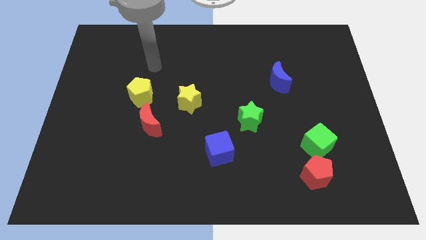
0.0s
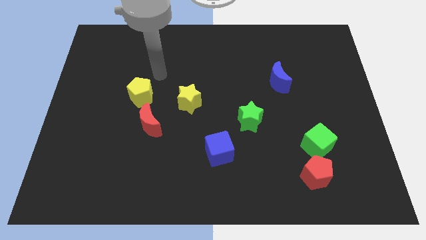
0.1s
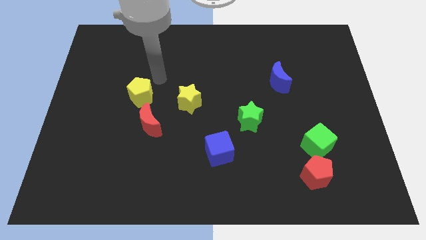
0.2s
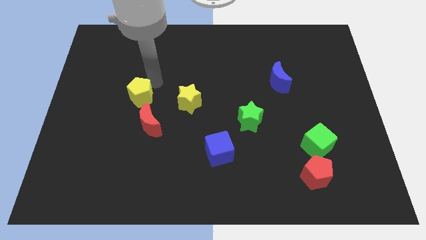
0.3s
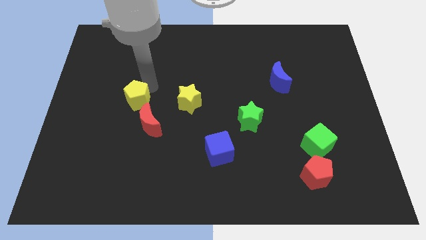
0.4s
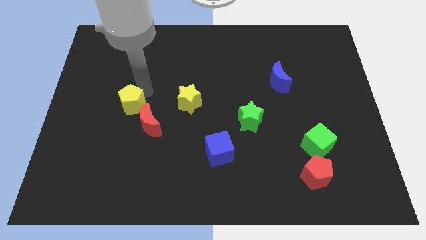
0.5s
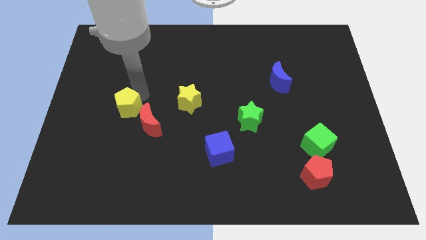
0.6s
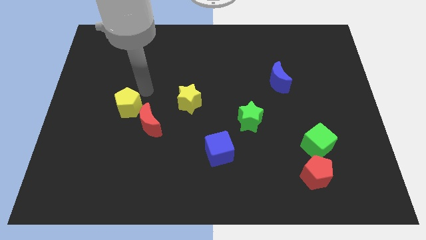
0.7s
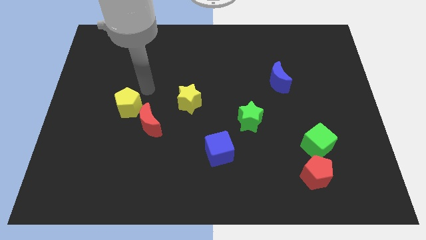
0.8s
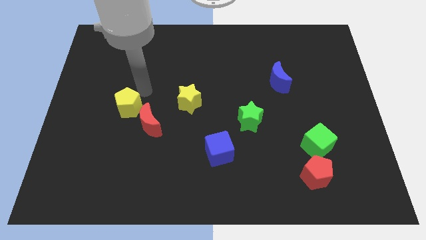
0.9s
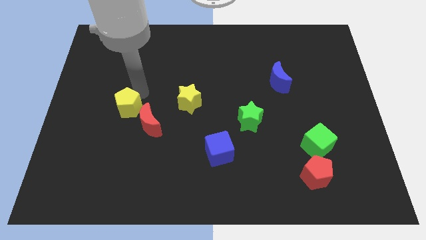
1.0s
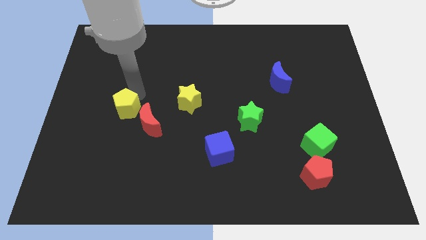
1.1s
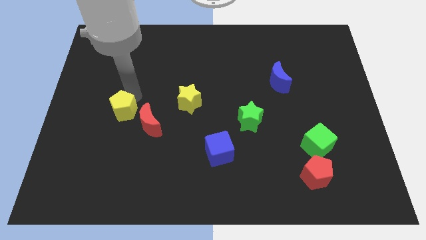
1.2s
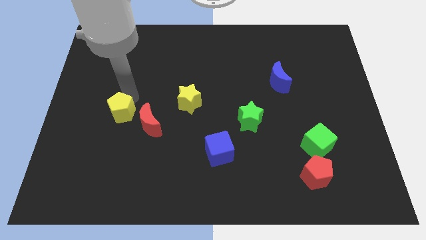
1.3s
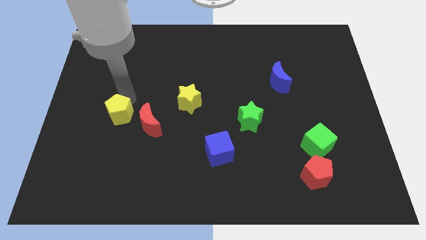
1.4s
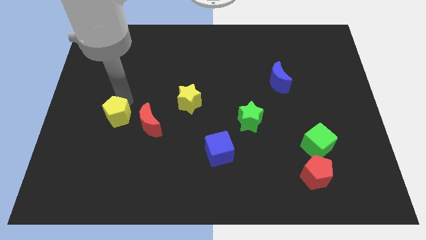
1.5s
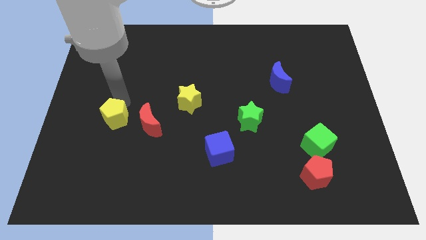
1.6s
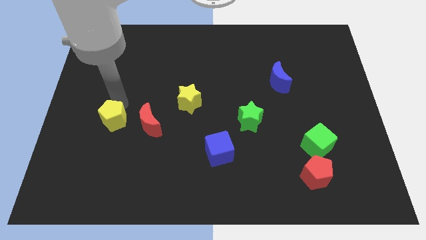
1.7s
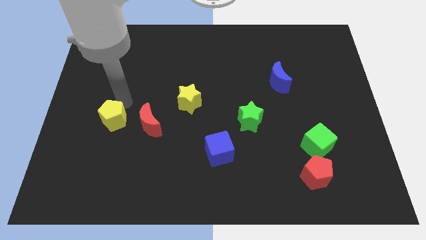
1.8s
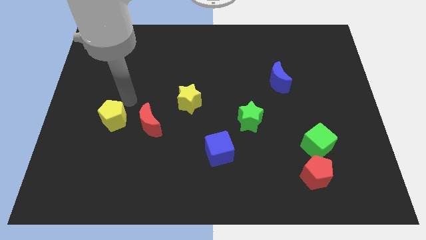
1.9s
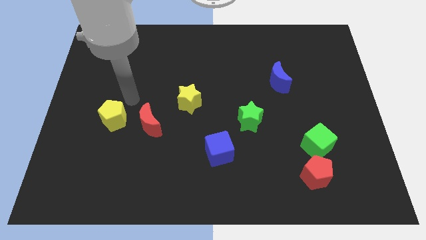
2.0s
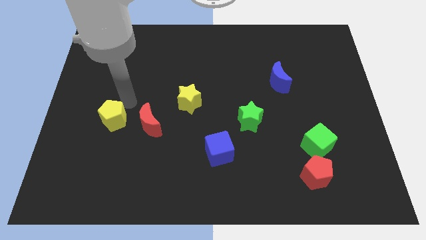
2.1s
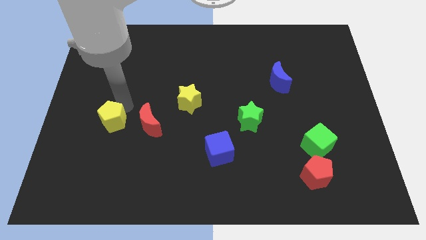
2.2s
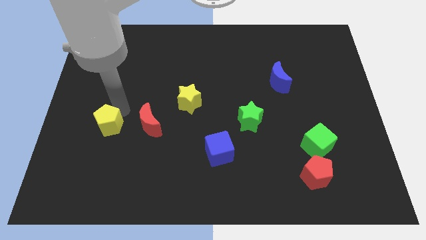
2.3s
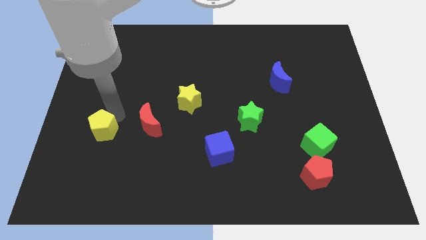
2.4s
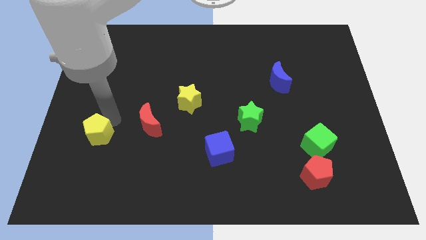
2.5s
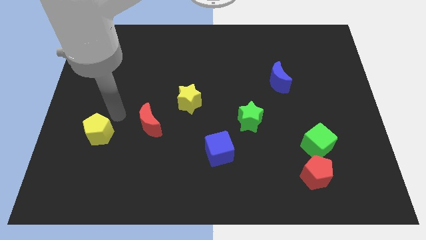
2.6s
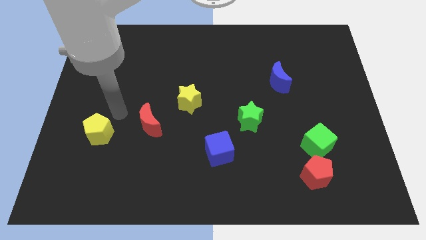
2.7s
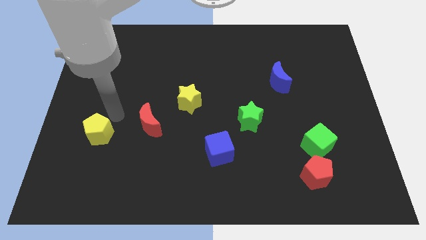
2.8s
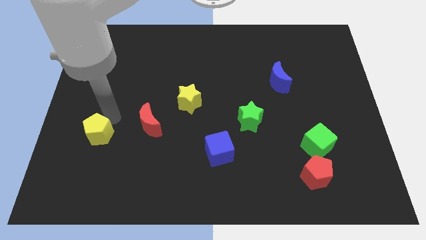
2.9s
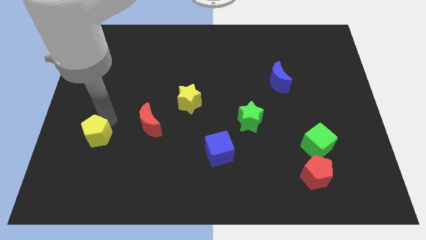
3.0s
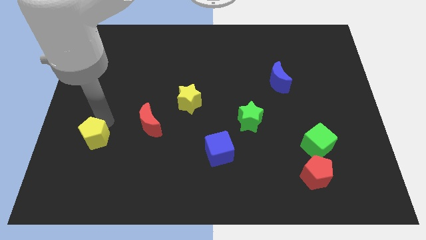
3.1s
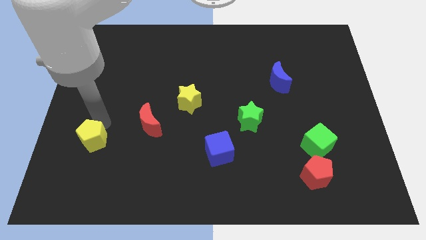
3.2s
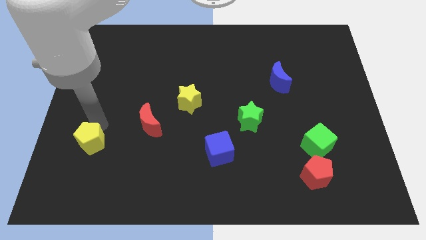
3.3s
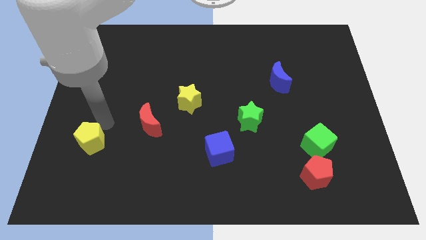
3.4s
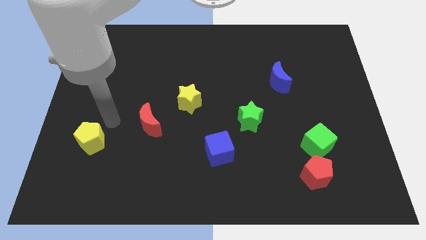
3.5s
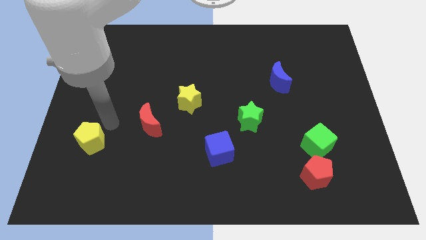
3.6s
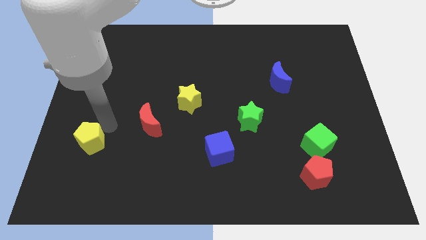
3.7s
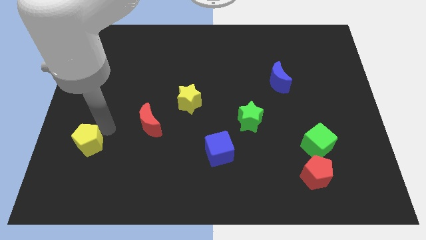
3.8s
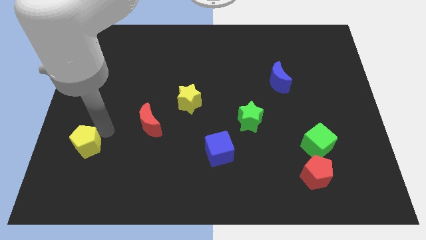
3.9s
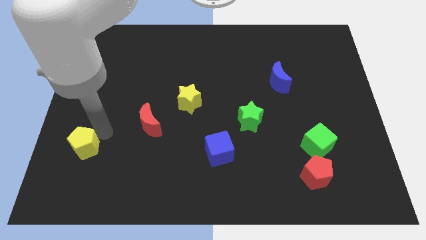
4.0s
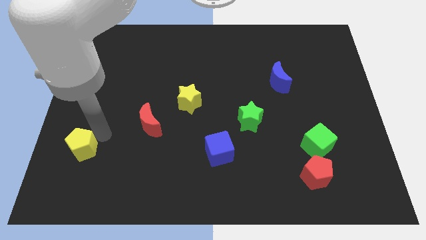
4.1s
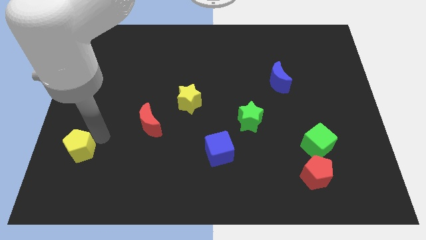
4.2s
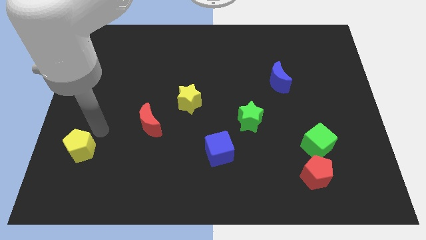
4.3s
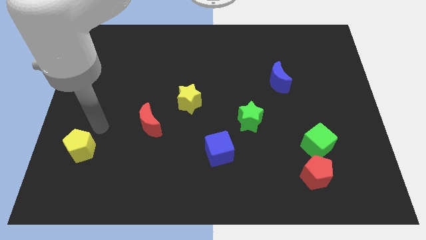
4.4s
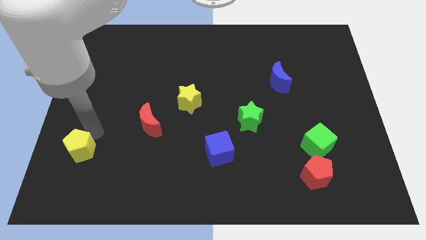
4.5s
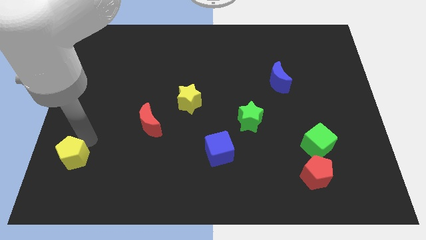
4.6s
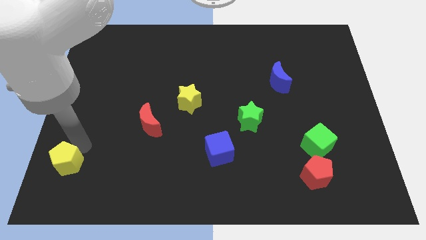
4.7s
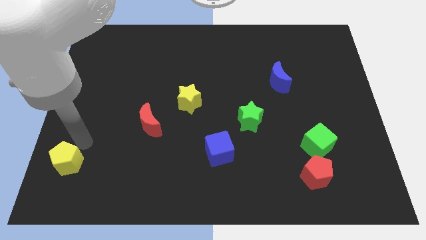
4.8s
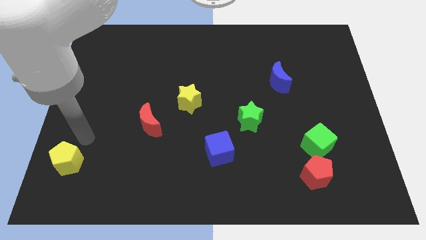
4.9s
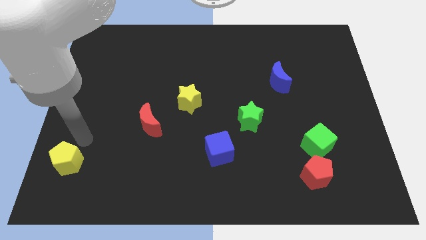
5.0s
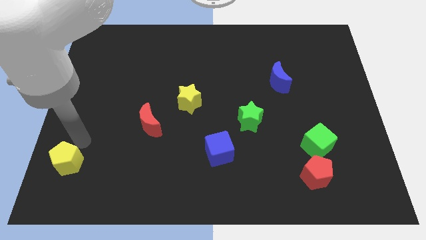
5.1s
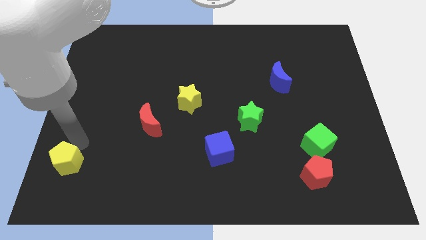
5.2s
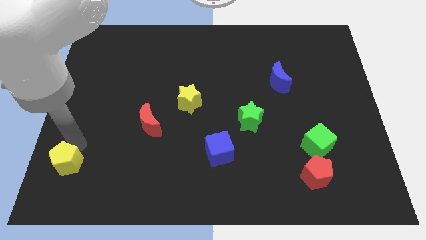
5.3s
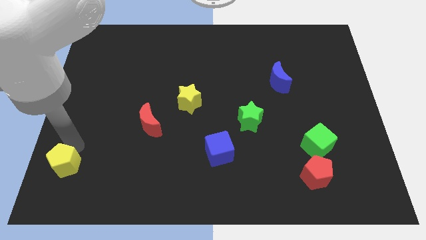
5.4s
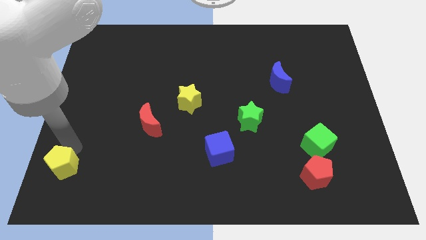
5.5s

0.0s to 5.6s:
slide the yellow pentagon to the bottom left

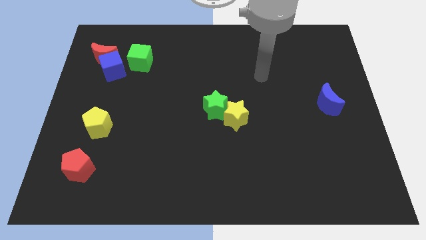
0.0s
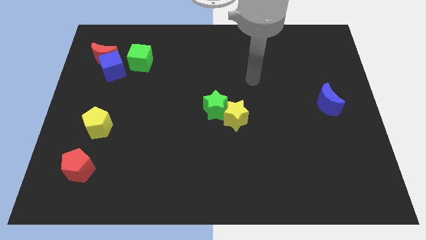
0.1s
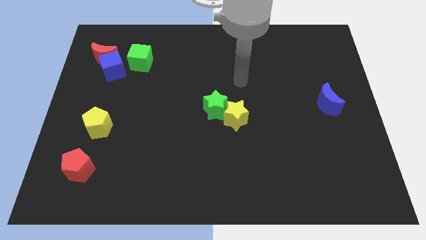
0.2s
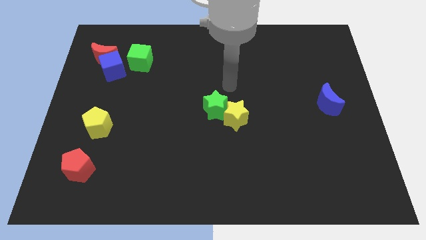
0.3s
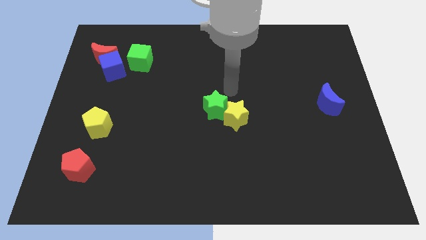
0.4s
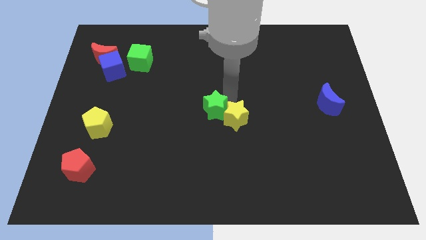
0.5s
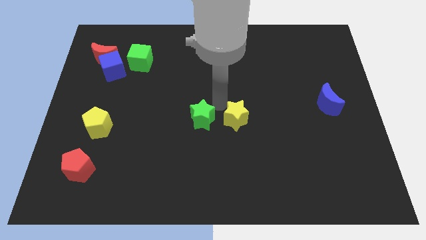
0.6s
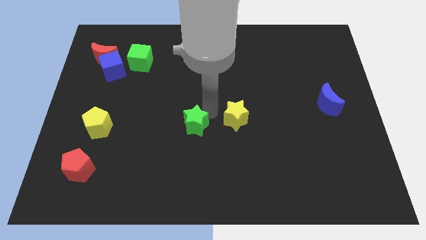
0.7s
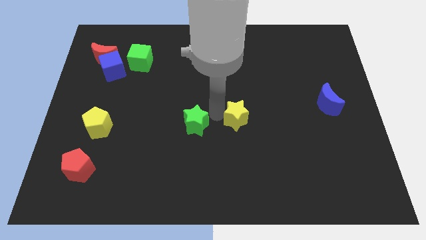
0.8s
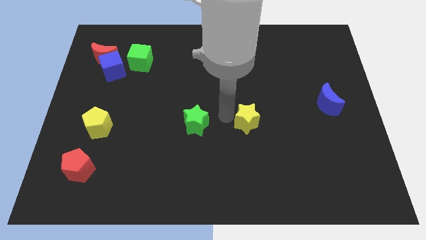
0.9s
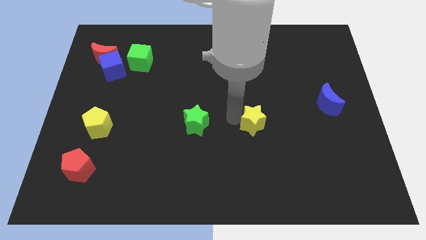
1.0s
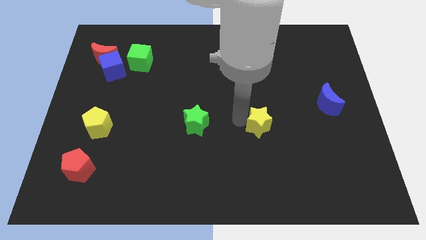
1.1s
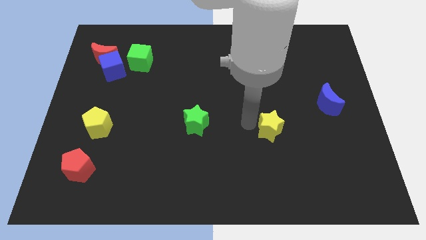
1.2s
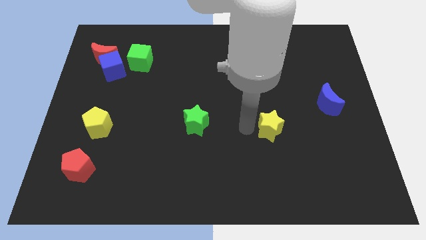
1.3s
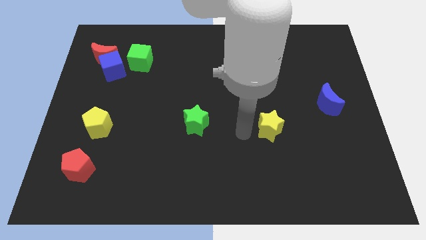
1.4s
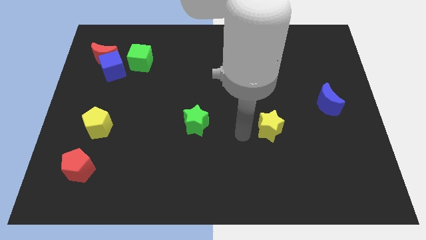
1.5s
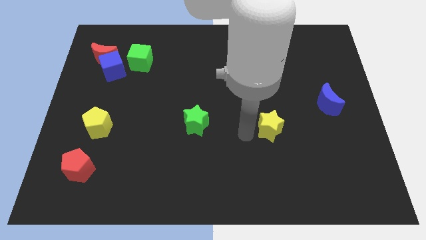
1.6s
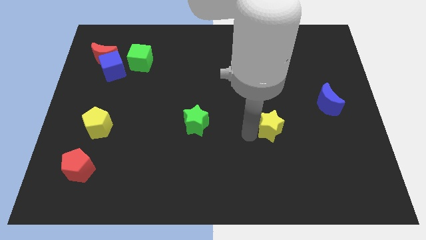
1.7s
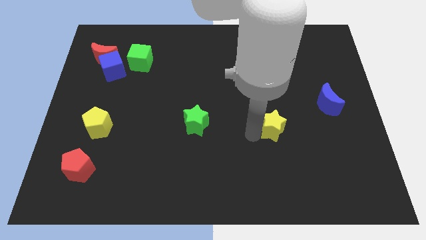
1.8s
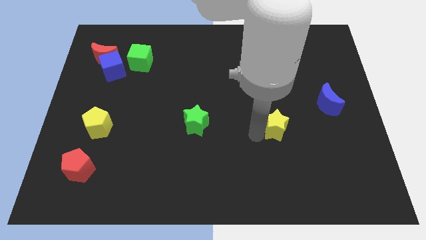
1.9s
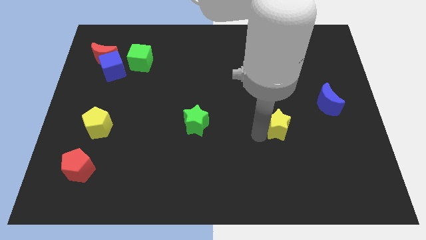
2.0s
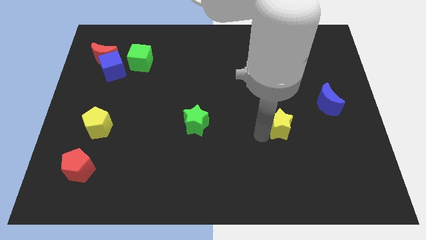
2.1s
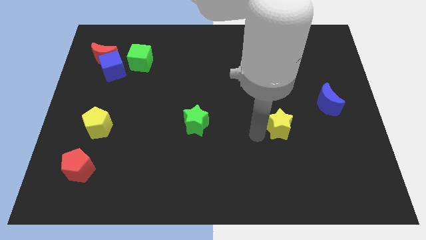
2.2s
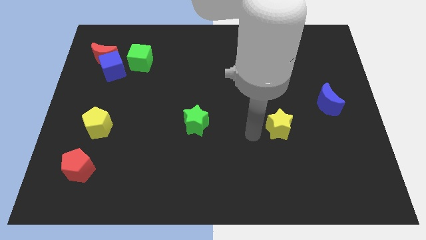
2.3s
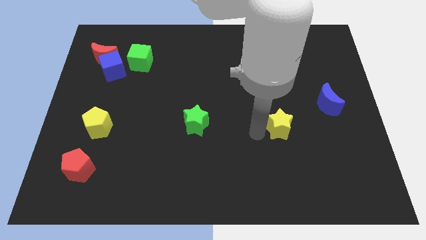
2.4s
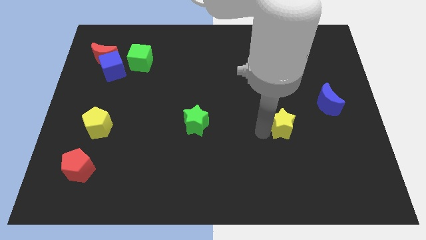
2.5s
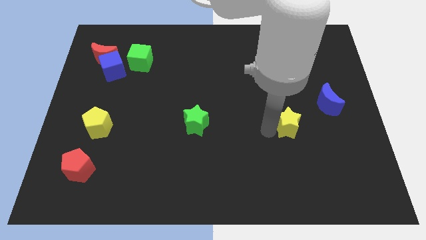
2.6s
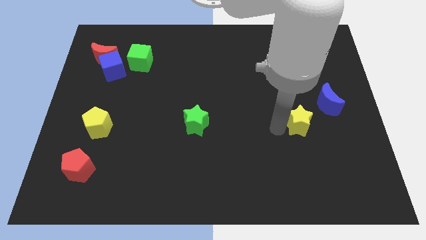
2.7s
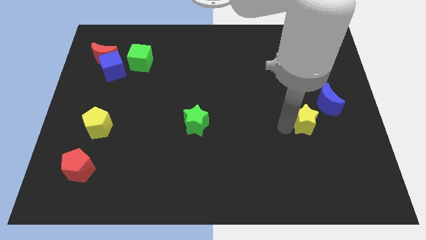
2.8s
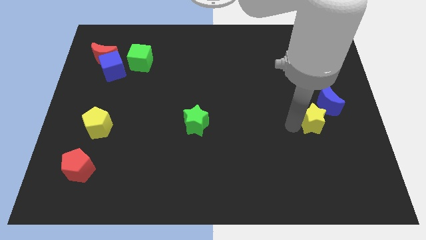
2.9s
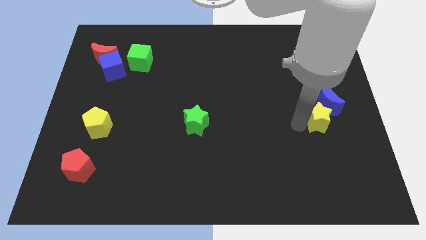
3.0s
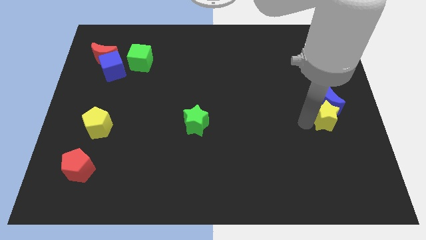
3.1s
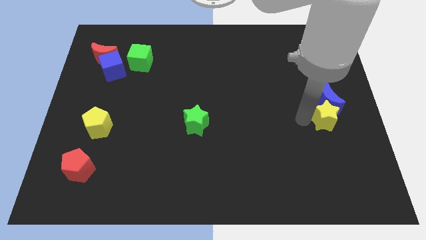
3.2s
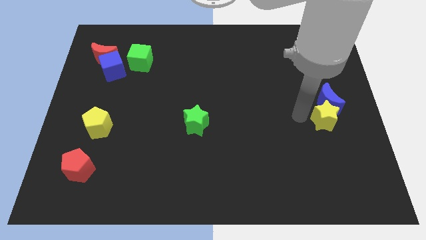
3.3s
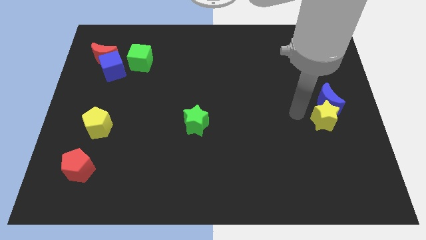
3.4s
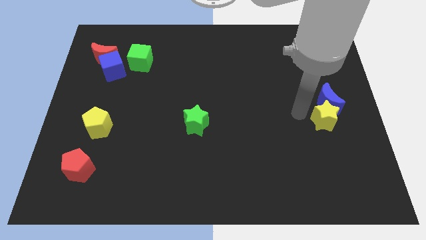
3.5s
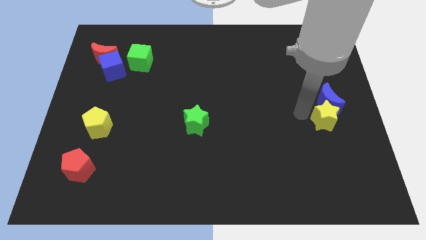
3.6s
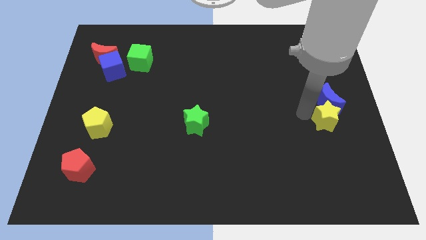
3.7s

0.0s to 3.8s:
put the yellow star to the right side of the board
